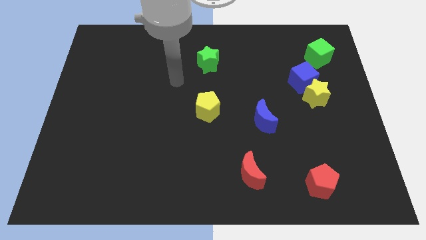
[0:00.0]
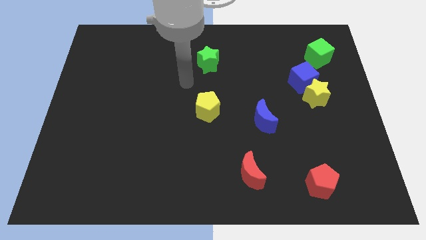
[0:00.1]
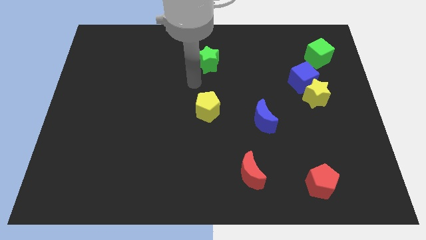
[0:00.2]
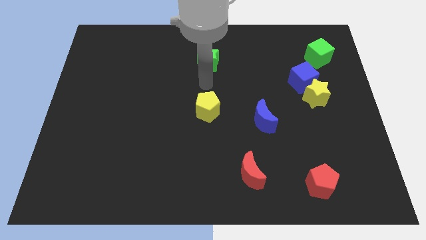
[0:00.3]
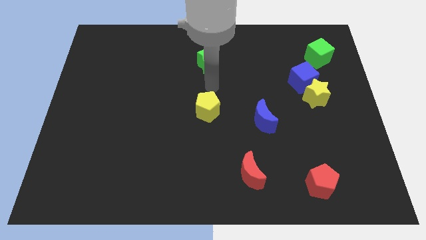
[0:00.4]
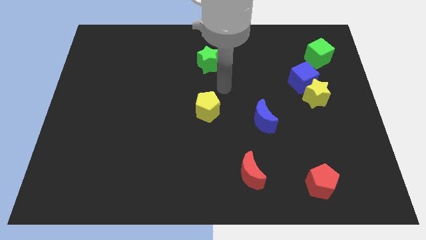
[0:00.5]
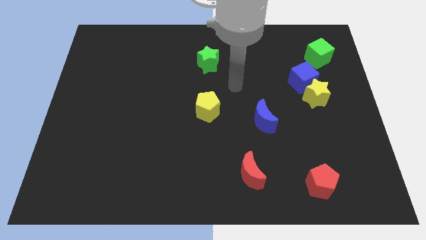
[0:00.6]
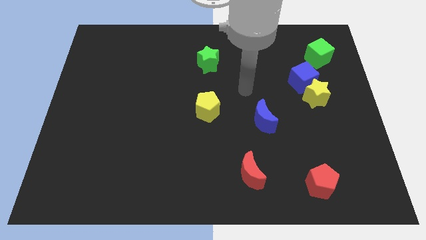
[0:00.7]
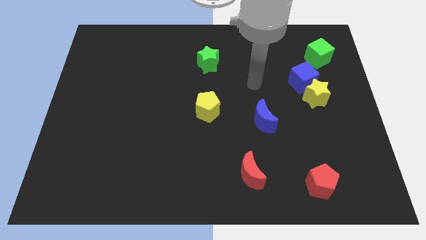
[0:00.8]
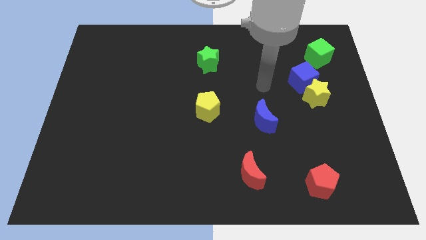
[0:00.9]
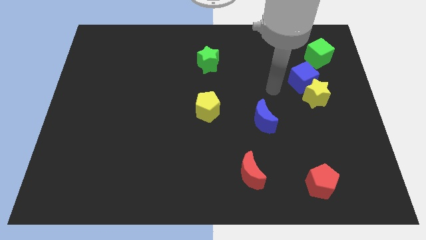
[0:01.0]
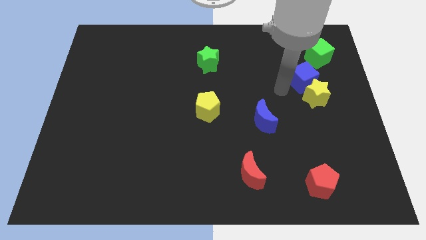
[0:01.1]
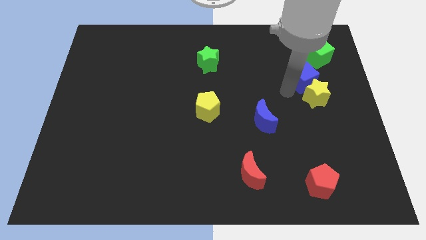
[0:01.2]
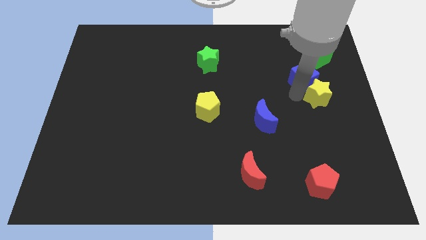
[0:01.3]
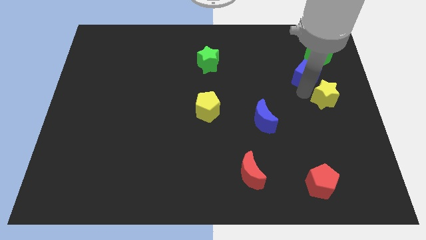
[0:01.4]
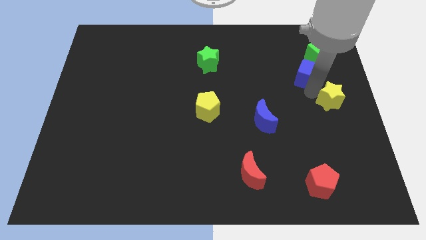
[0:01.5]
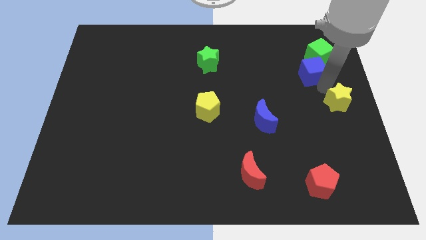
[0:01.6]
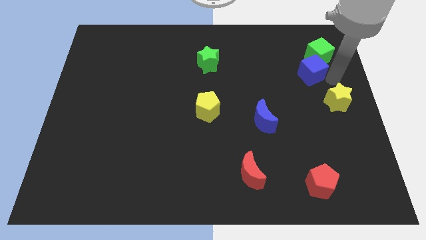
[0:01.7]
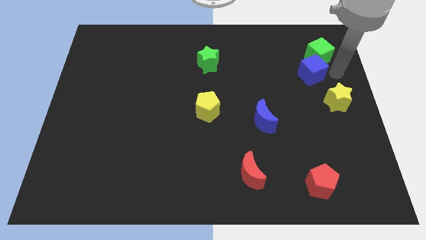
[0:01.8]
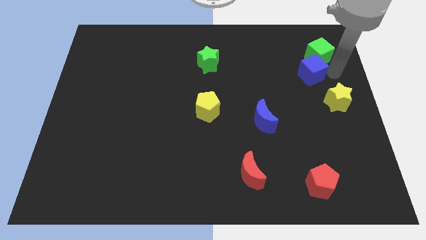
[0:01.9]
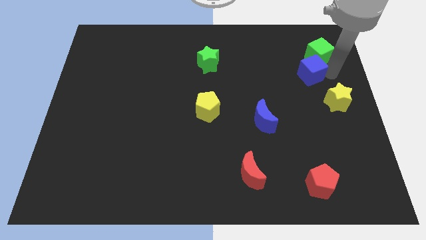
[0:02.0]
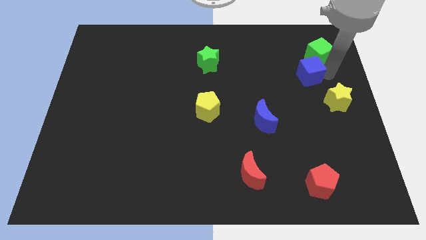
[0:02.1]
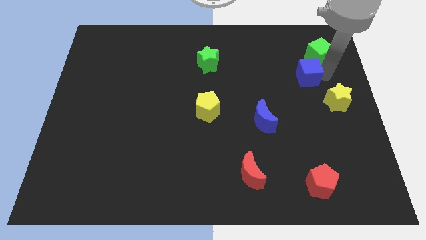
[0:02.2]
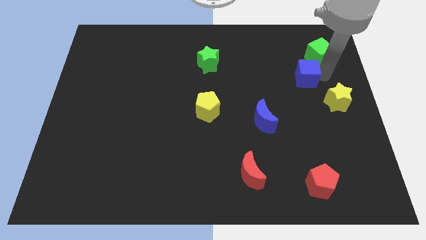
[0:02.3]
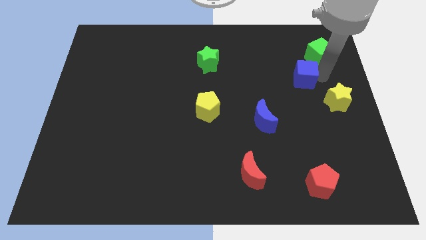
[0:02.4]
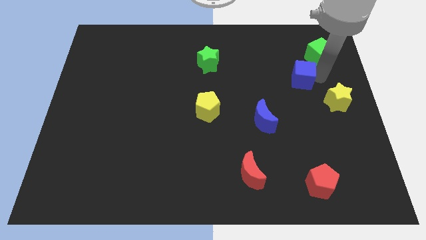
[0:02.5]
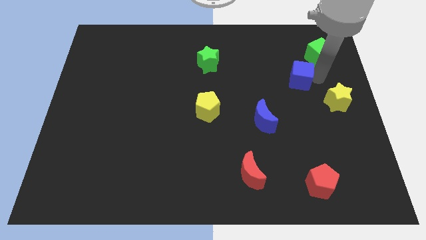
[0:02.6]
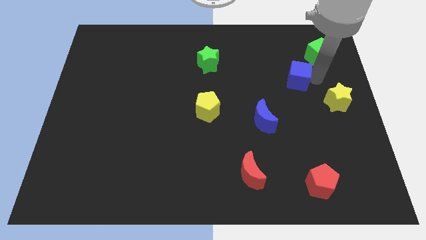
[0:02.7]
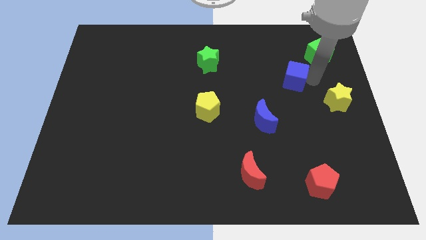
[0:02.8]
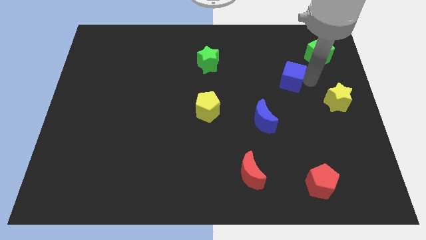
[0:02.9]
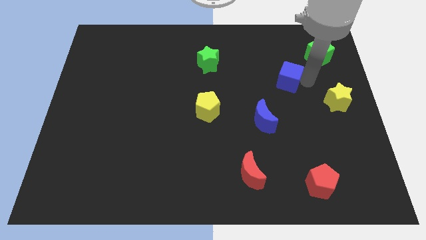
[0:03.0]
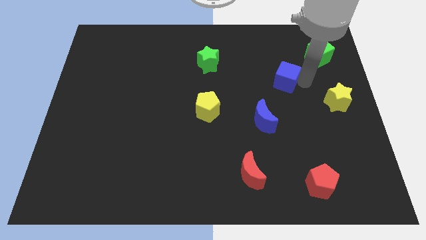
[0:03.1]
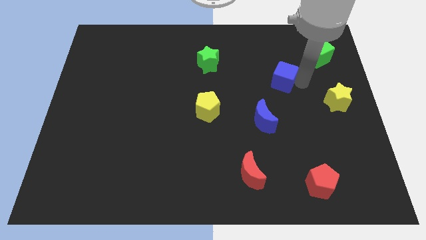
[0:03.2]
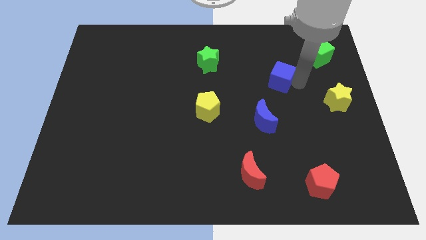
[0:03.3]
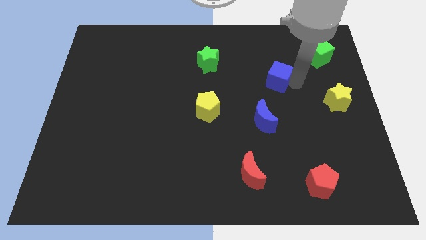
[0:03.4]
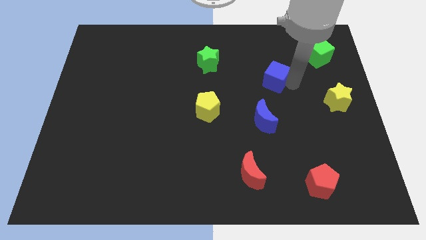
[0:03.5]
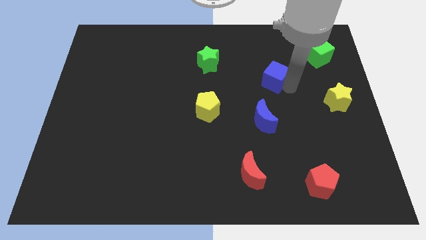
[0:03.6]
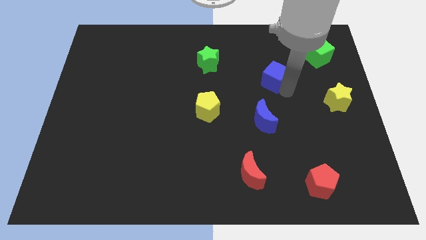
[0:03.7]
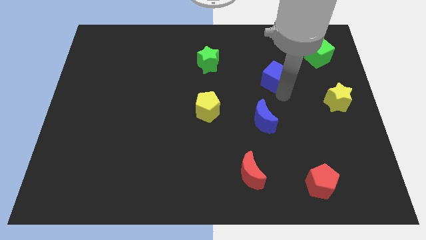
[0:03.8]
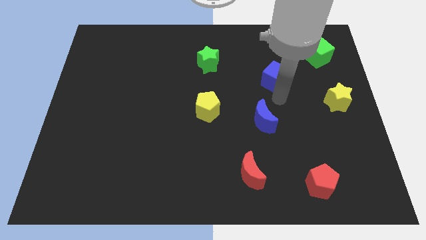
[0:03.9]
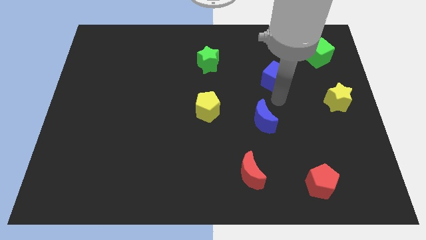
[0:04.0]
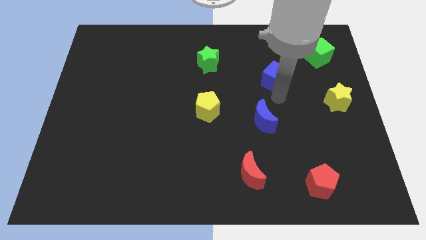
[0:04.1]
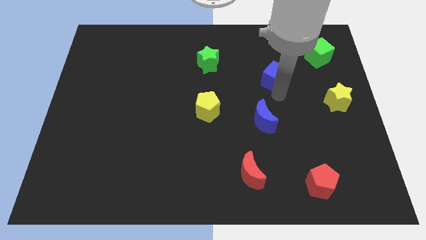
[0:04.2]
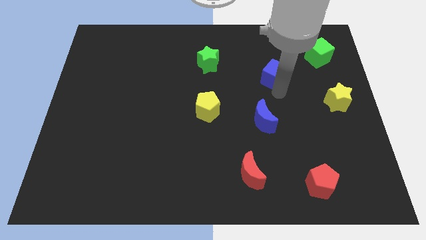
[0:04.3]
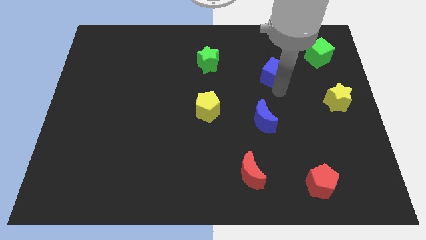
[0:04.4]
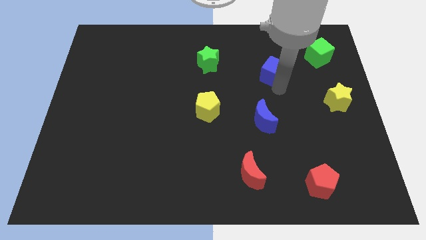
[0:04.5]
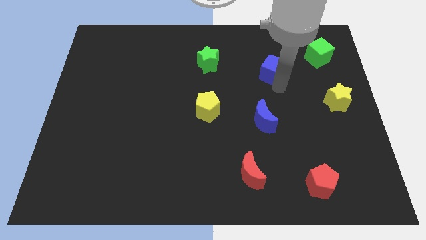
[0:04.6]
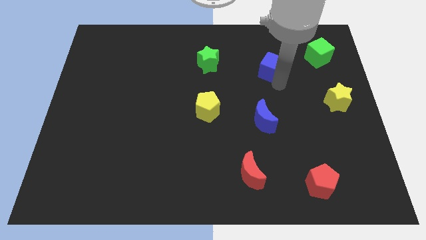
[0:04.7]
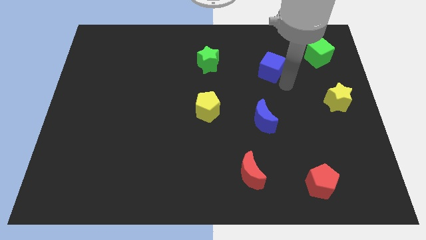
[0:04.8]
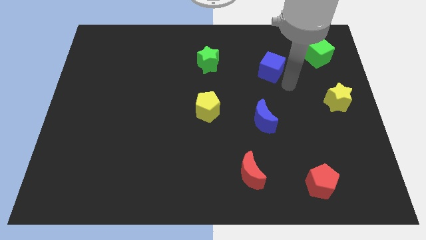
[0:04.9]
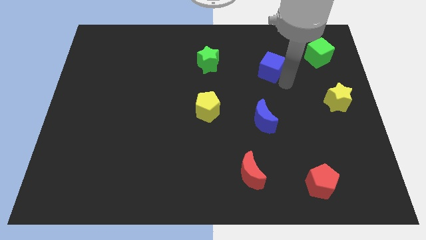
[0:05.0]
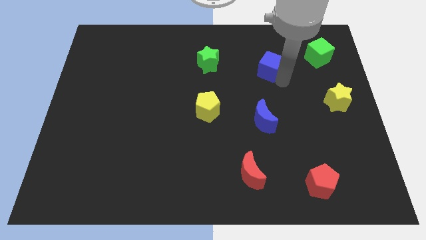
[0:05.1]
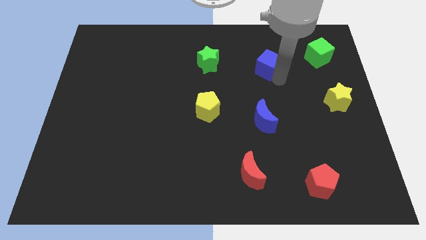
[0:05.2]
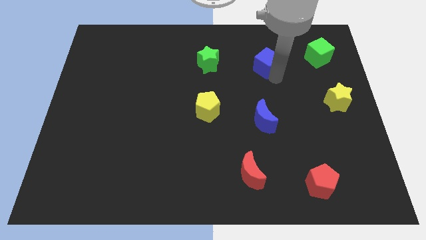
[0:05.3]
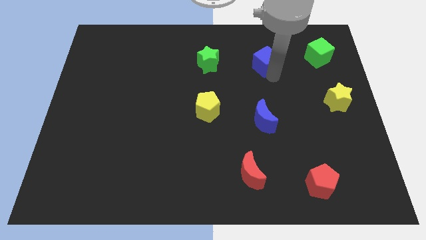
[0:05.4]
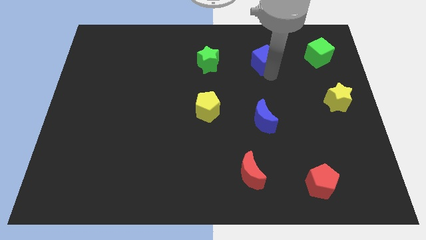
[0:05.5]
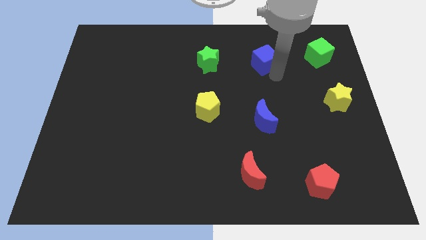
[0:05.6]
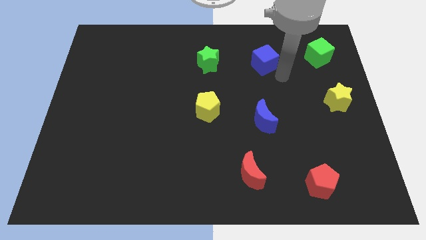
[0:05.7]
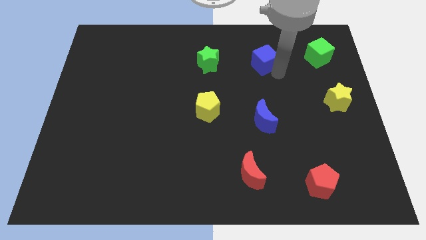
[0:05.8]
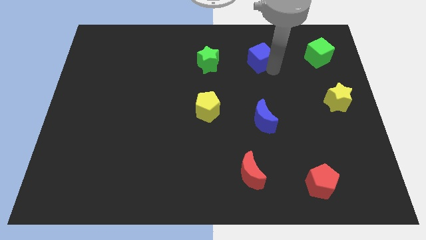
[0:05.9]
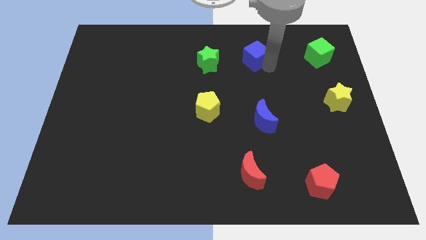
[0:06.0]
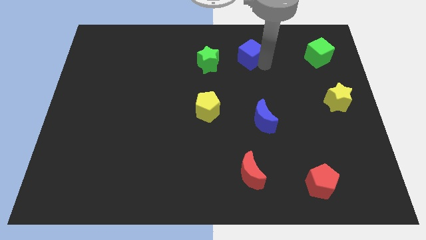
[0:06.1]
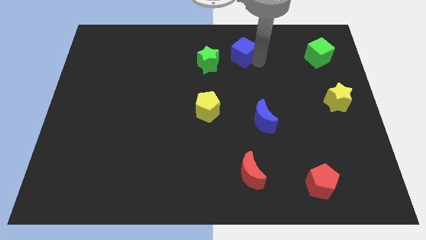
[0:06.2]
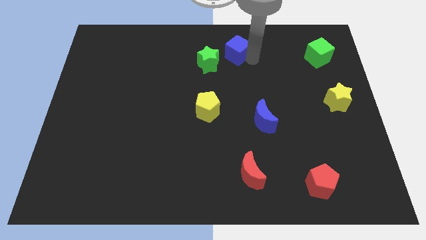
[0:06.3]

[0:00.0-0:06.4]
slide the blue cube to the top
